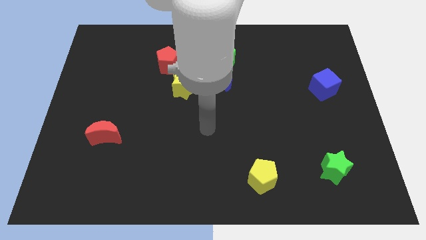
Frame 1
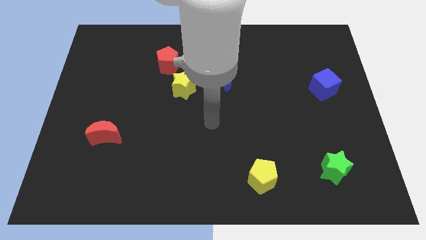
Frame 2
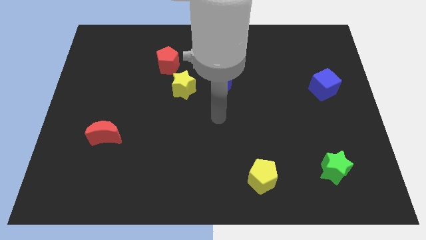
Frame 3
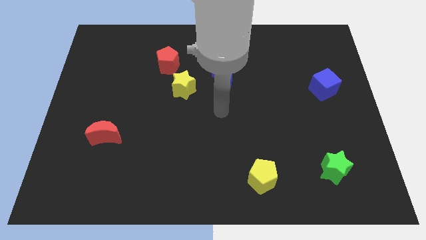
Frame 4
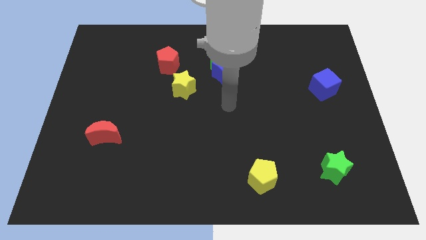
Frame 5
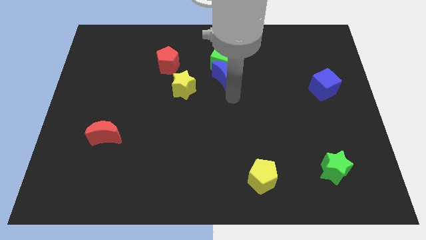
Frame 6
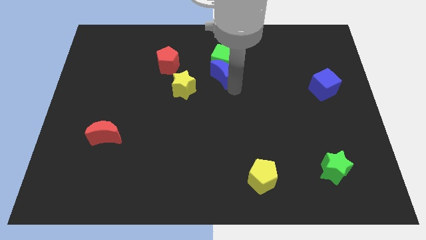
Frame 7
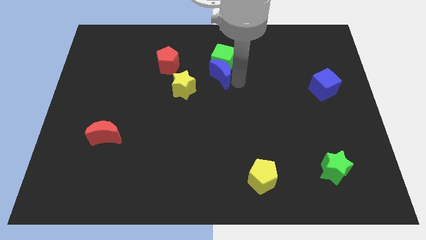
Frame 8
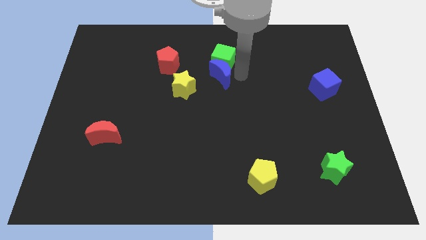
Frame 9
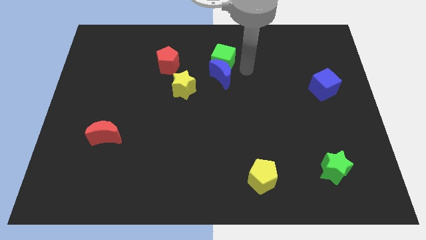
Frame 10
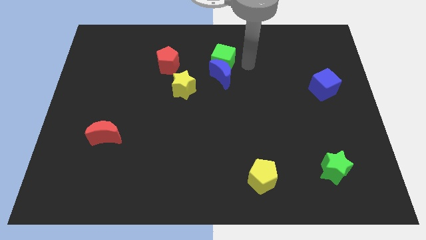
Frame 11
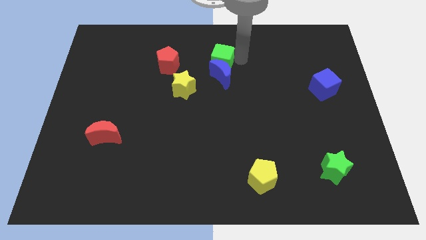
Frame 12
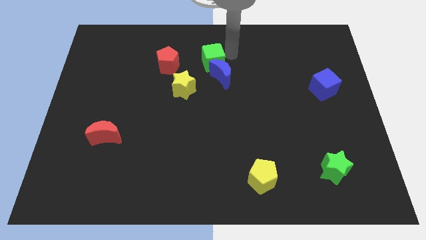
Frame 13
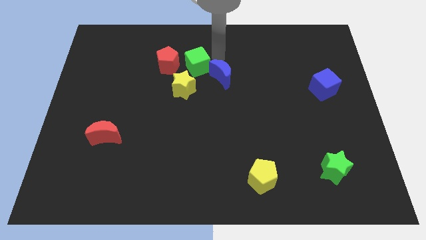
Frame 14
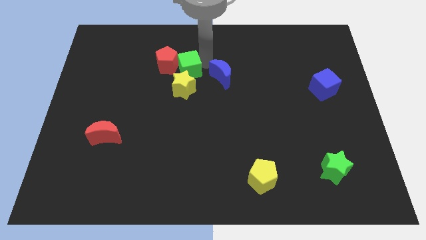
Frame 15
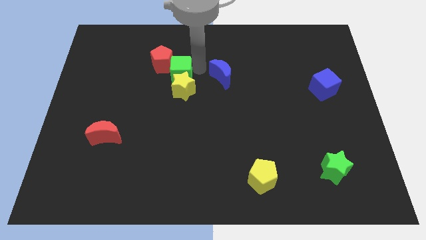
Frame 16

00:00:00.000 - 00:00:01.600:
pull the blue moon apart from the green cube

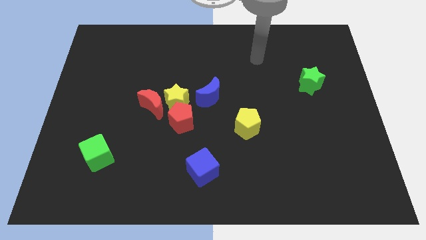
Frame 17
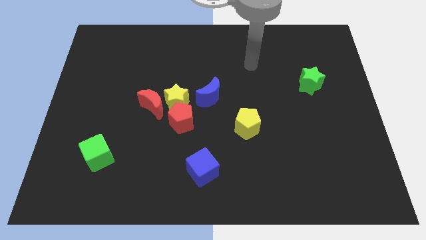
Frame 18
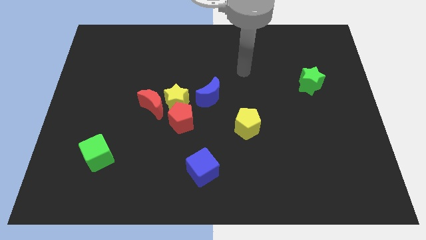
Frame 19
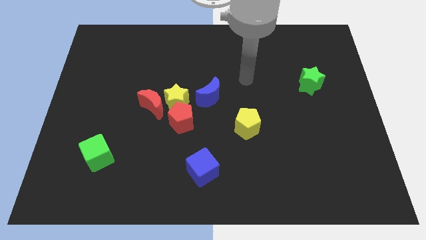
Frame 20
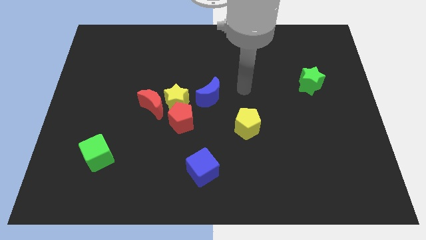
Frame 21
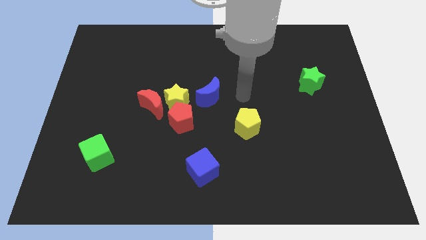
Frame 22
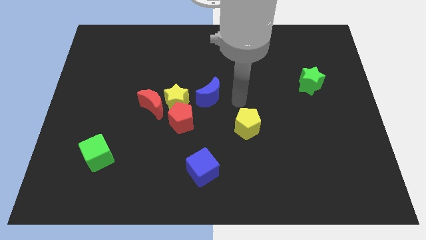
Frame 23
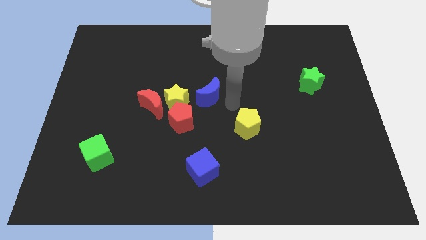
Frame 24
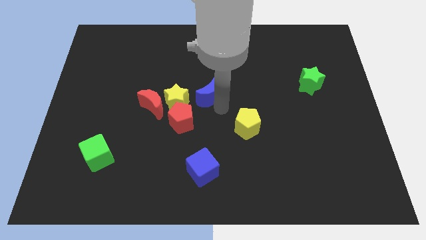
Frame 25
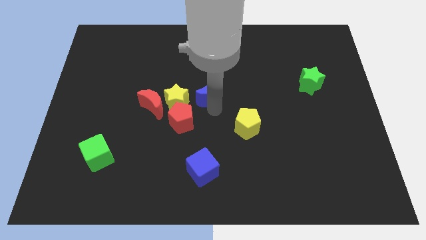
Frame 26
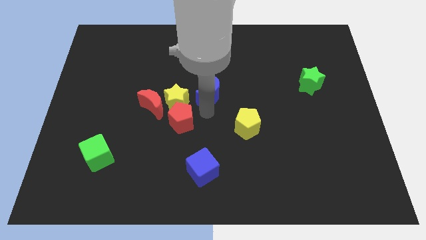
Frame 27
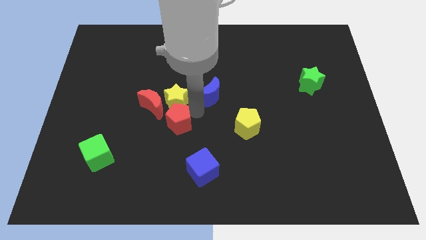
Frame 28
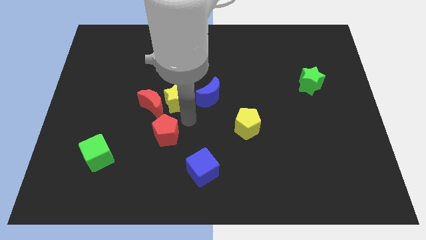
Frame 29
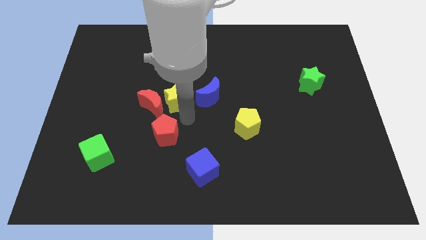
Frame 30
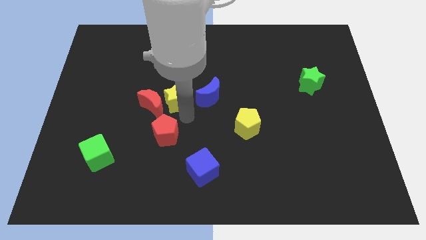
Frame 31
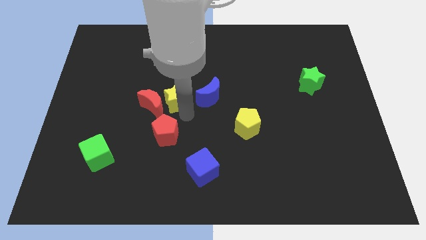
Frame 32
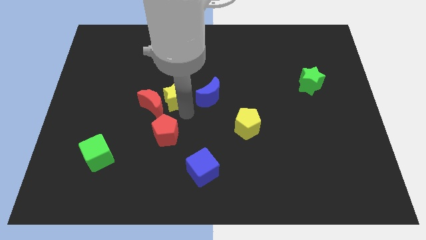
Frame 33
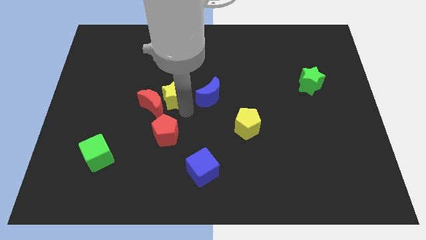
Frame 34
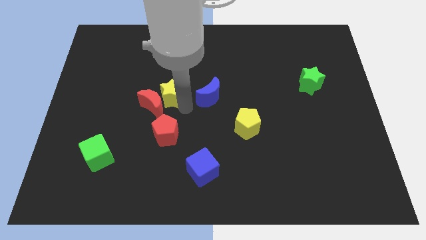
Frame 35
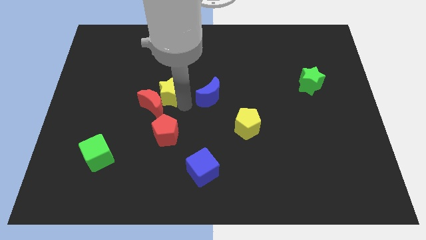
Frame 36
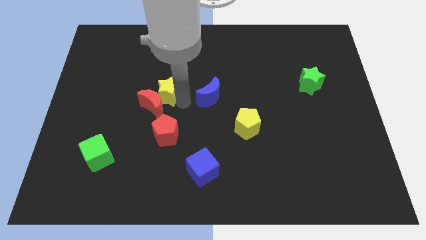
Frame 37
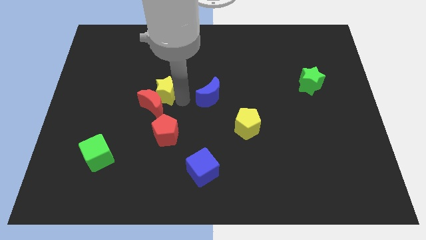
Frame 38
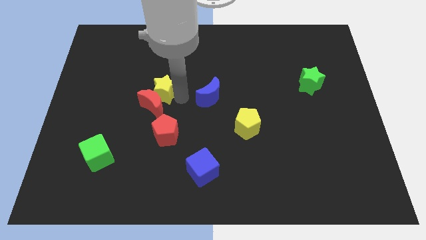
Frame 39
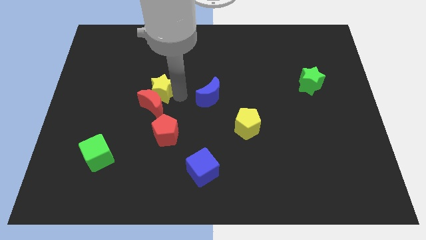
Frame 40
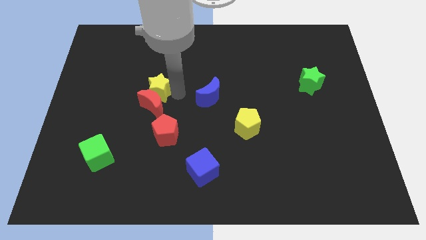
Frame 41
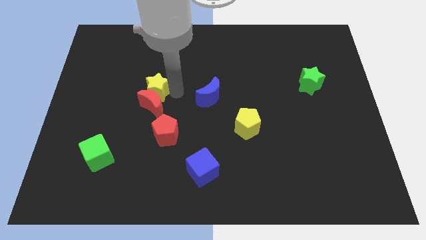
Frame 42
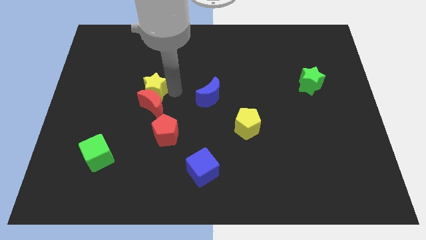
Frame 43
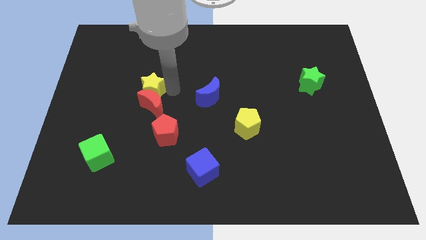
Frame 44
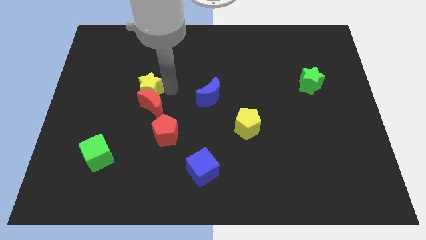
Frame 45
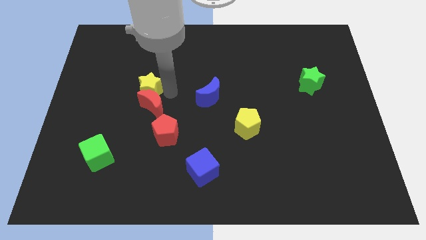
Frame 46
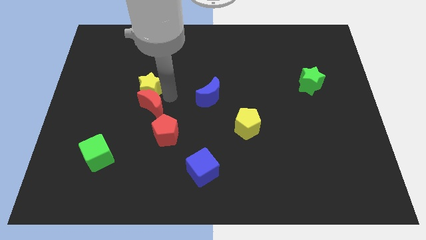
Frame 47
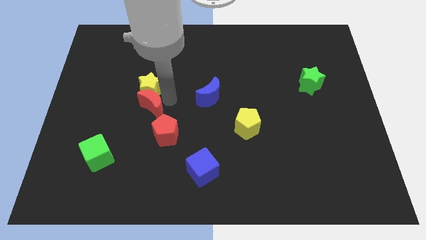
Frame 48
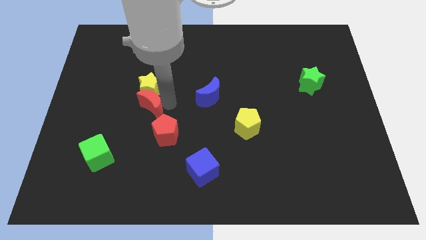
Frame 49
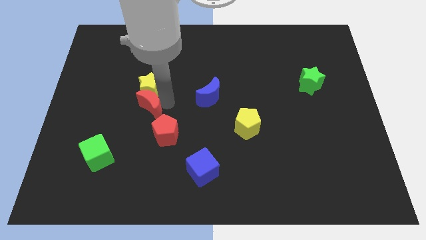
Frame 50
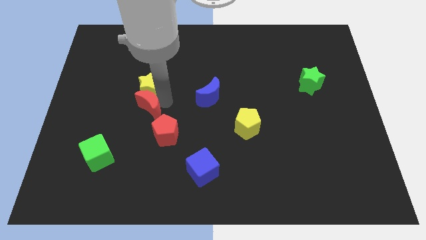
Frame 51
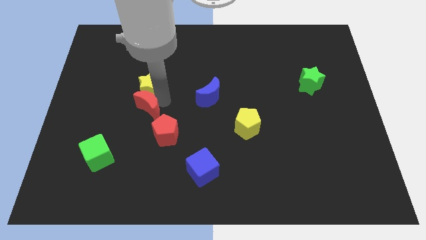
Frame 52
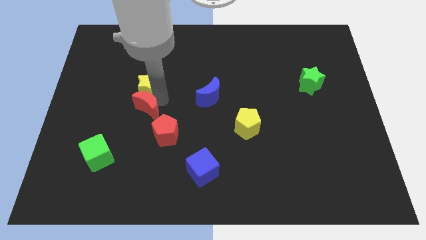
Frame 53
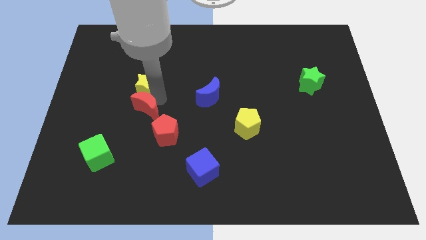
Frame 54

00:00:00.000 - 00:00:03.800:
move the yellow star away from the red moon, red pentagon, and blue moon

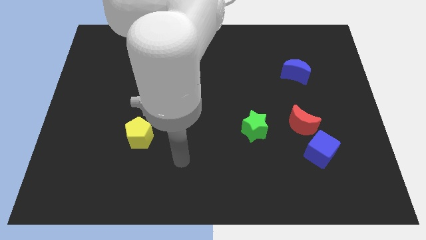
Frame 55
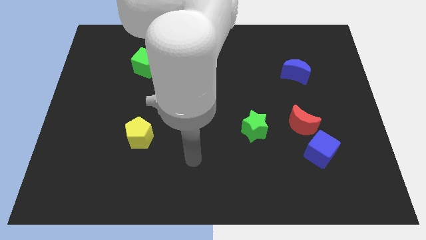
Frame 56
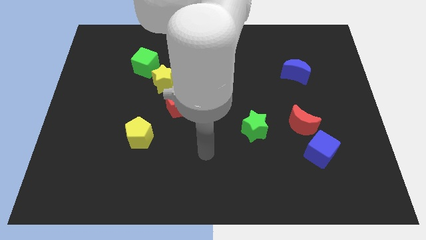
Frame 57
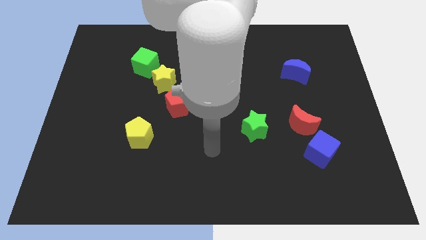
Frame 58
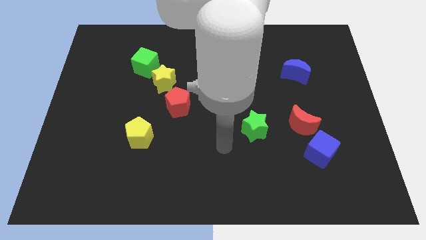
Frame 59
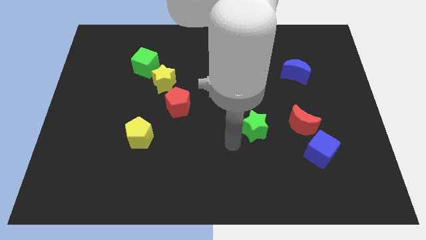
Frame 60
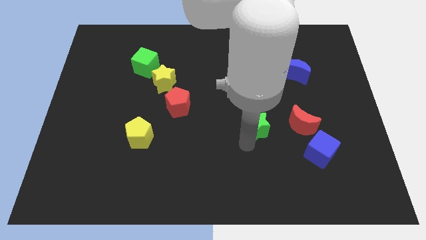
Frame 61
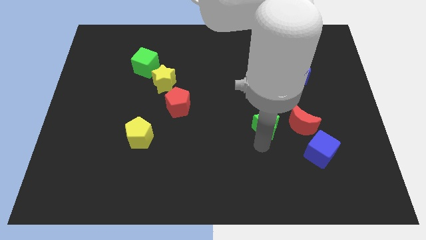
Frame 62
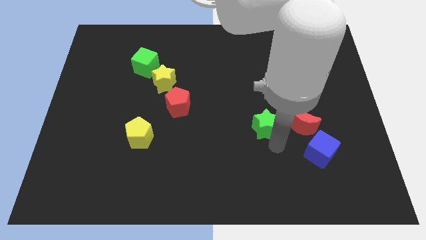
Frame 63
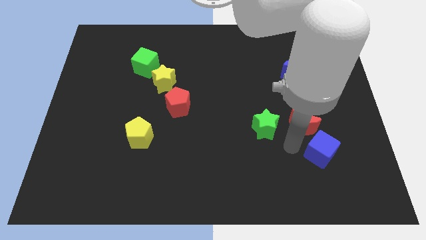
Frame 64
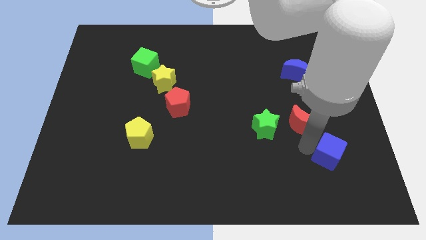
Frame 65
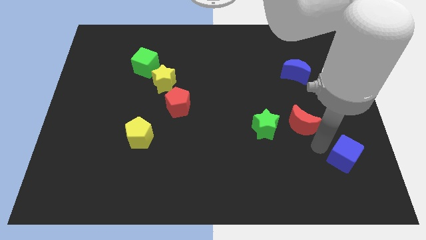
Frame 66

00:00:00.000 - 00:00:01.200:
move the red moon away from the blue cube

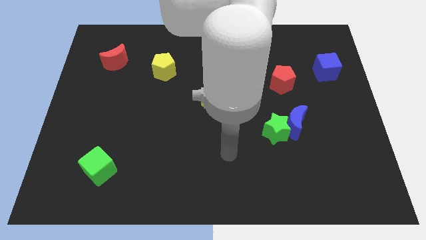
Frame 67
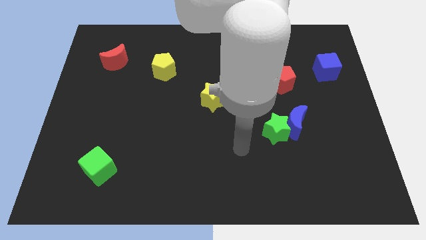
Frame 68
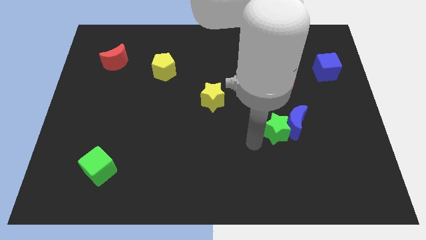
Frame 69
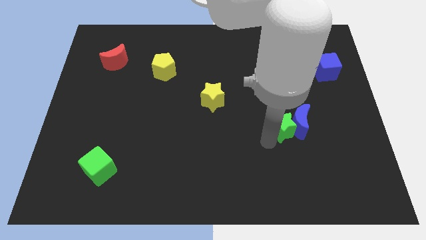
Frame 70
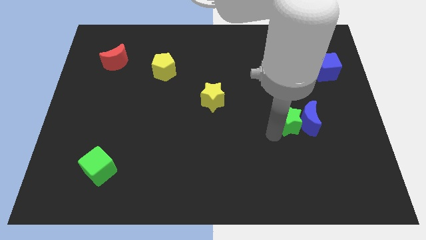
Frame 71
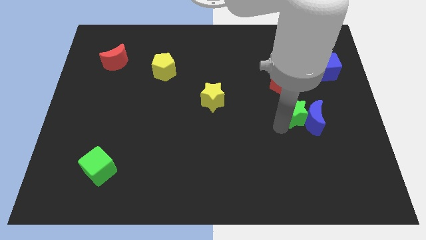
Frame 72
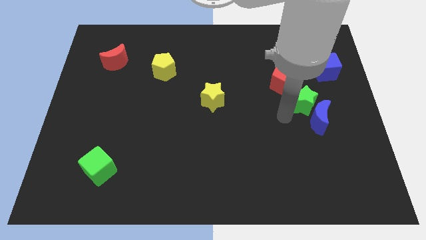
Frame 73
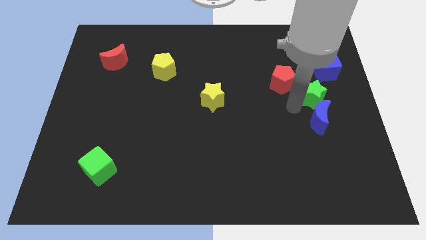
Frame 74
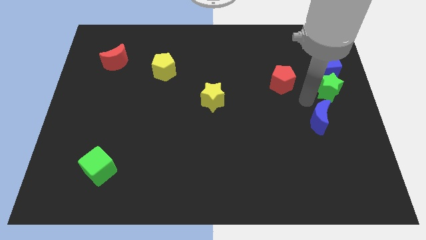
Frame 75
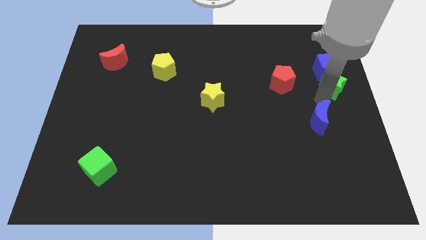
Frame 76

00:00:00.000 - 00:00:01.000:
separate the blue moon from the green star

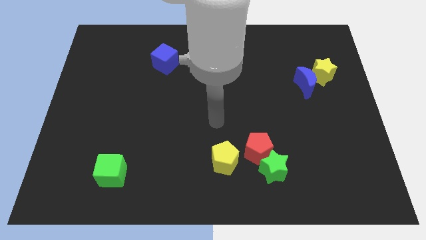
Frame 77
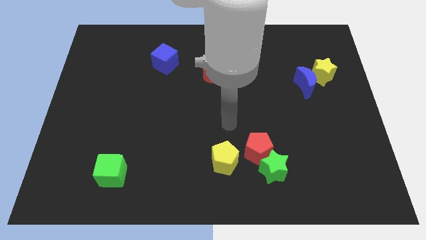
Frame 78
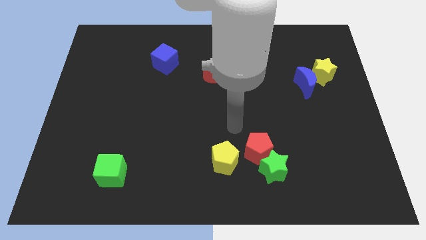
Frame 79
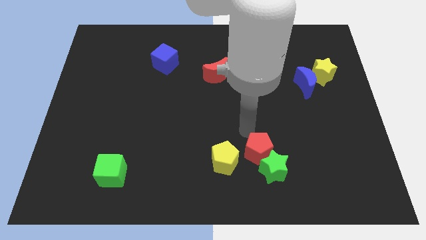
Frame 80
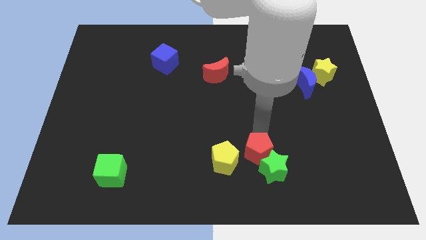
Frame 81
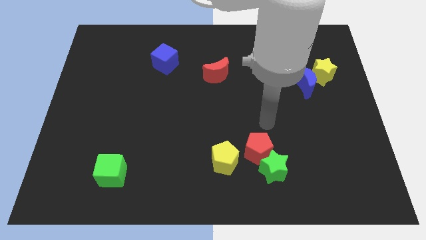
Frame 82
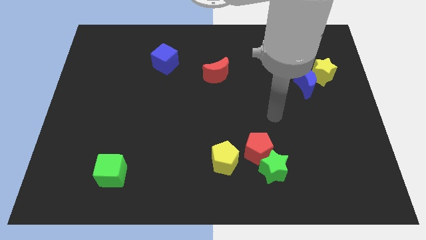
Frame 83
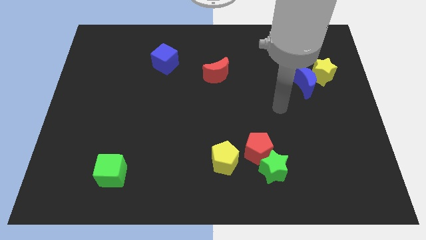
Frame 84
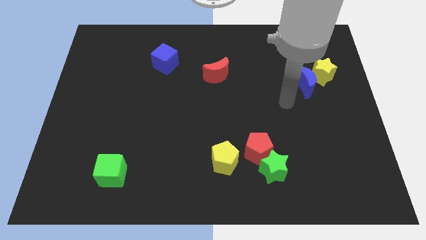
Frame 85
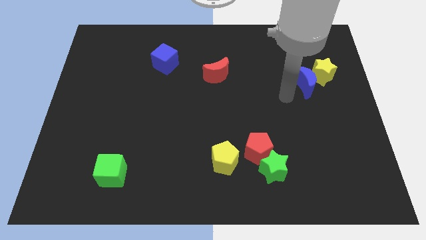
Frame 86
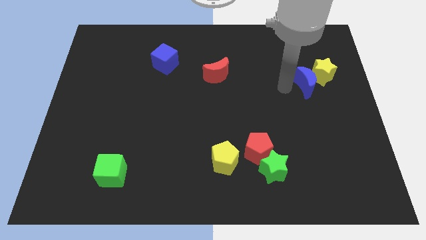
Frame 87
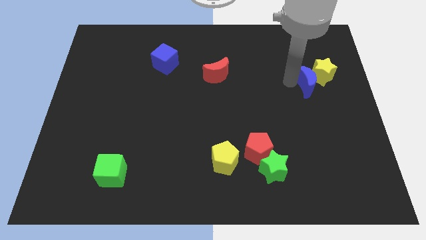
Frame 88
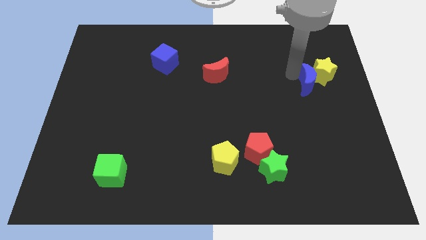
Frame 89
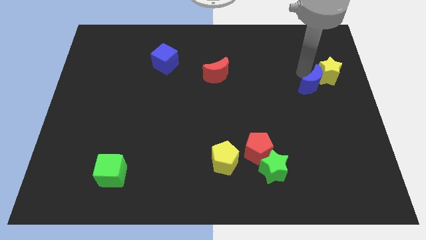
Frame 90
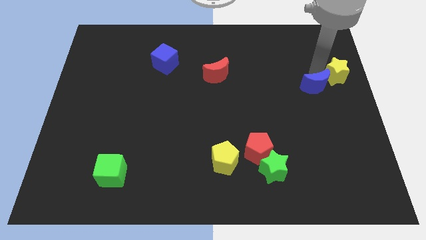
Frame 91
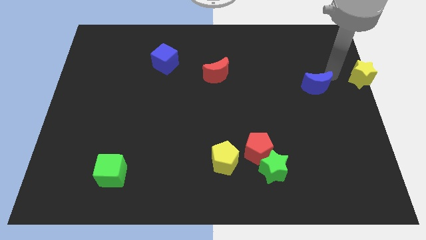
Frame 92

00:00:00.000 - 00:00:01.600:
move the blue moon away from the yellow star
